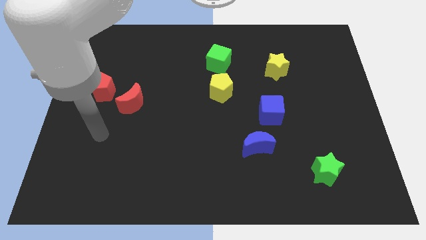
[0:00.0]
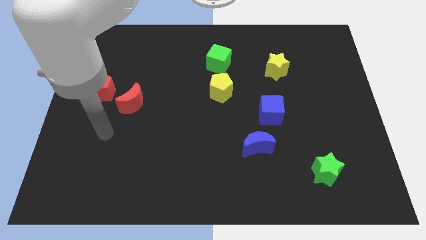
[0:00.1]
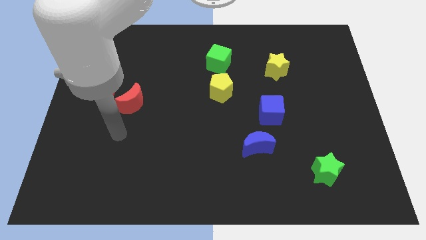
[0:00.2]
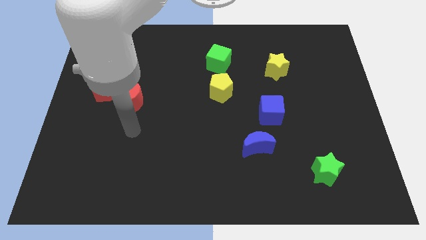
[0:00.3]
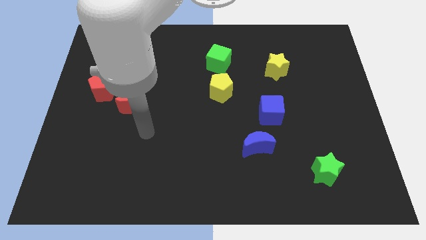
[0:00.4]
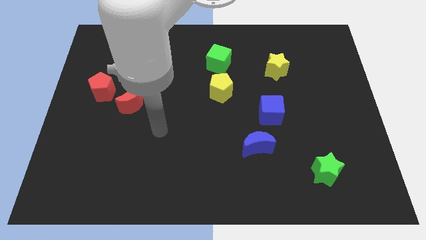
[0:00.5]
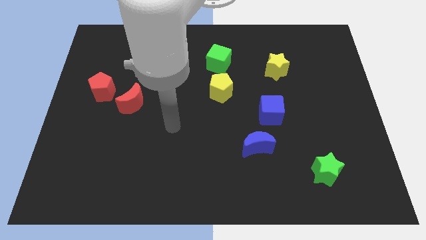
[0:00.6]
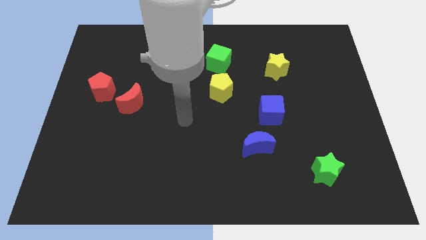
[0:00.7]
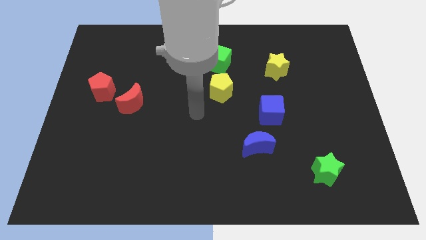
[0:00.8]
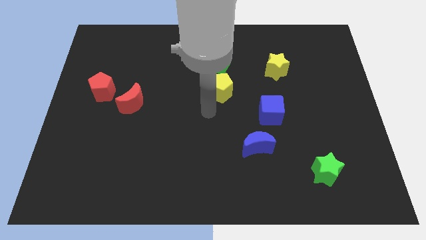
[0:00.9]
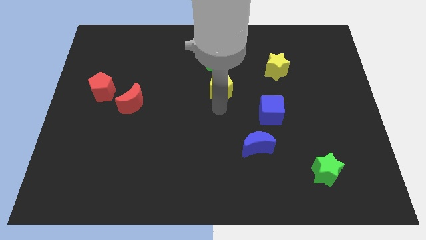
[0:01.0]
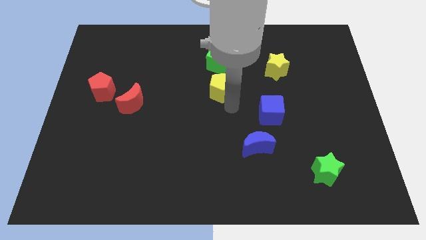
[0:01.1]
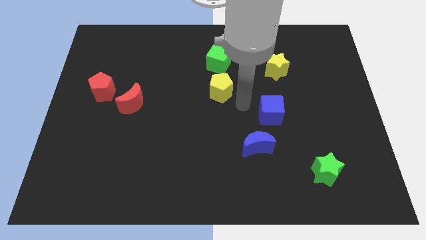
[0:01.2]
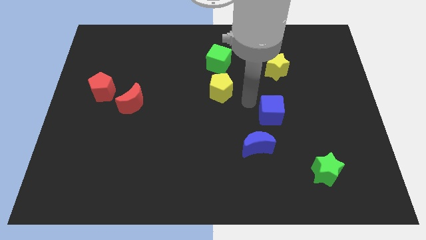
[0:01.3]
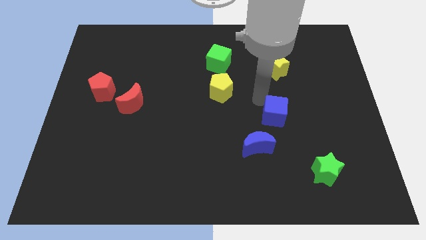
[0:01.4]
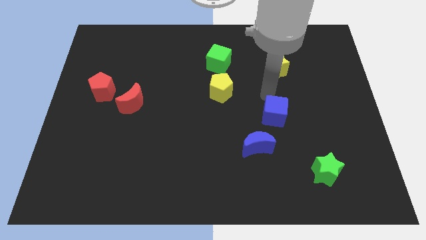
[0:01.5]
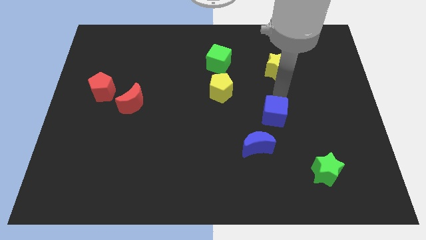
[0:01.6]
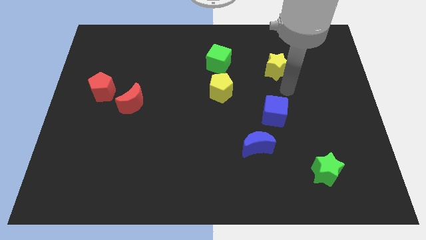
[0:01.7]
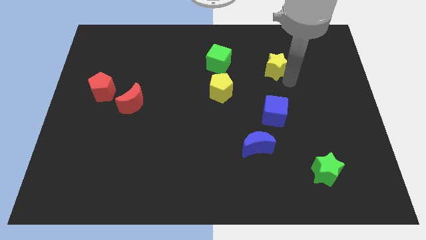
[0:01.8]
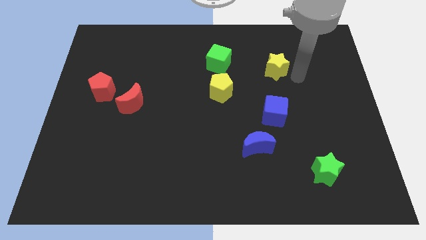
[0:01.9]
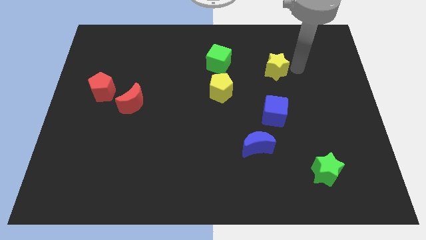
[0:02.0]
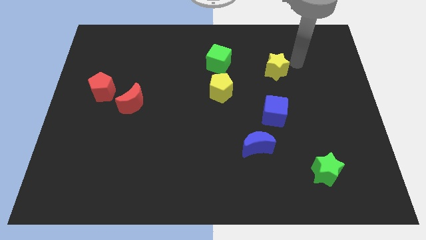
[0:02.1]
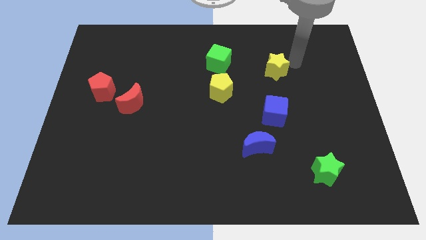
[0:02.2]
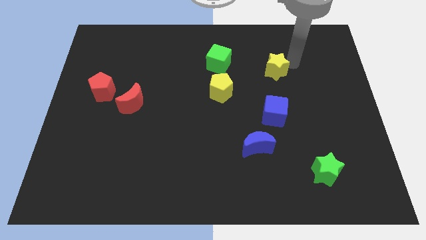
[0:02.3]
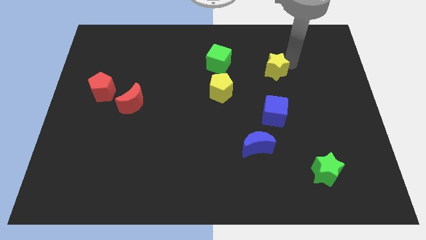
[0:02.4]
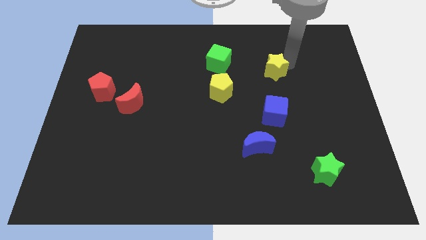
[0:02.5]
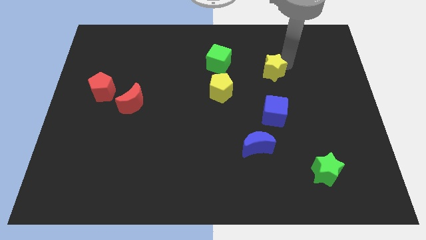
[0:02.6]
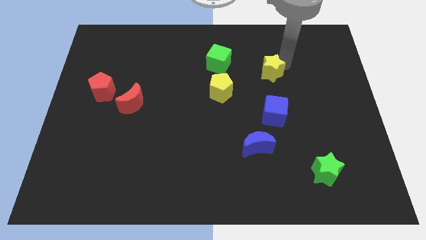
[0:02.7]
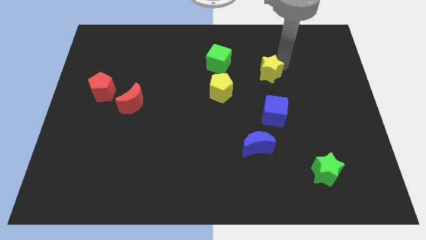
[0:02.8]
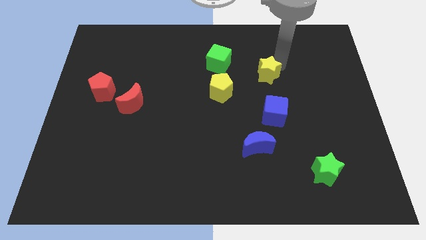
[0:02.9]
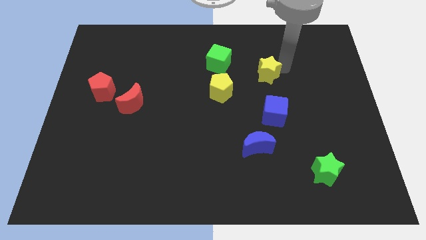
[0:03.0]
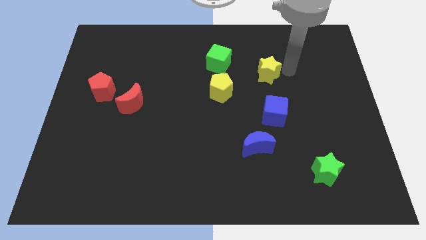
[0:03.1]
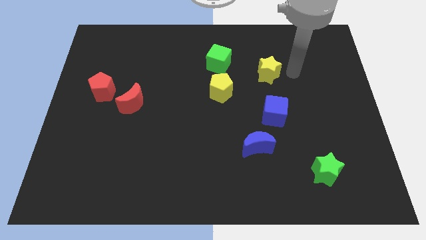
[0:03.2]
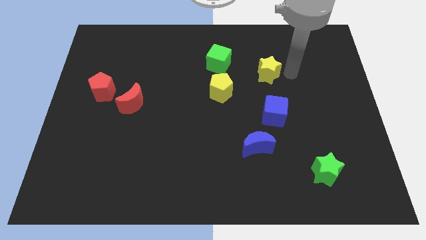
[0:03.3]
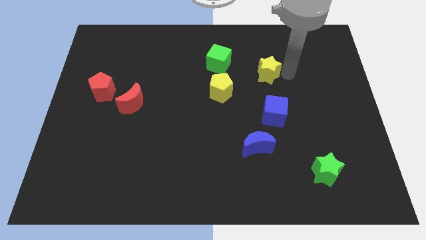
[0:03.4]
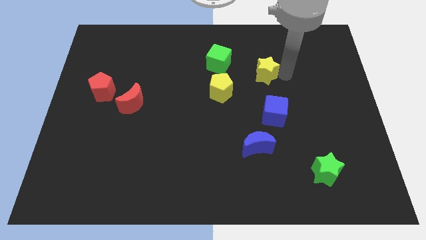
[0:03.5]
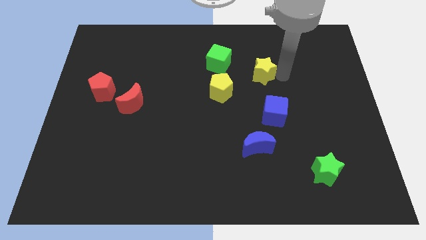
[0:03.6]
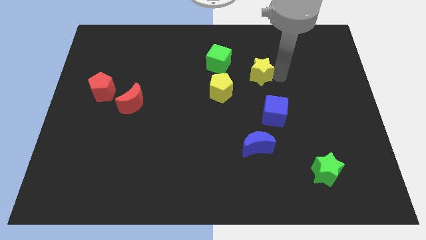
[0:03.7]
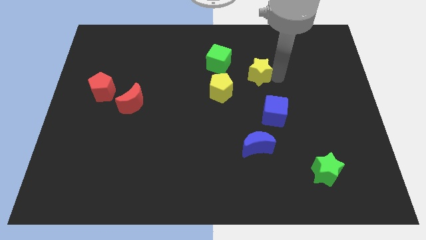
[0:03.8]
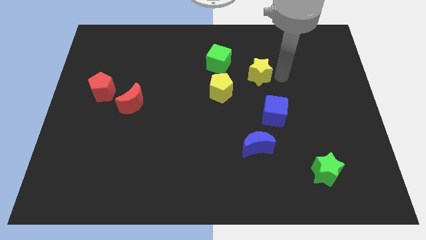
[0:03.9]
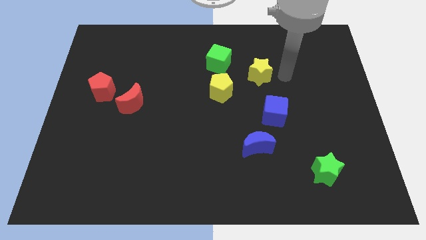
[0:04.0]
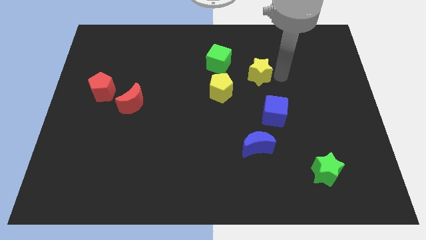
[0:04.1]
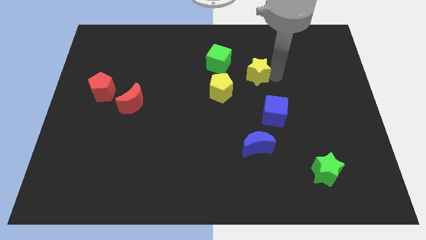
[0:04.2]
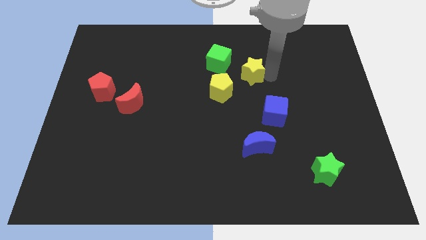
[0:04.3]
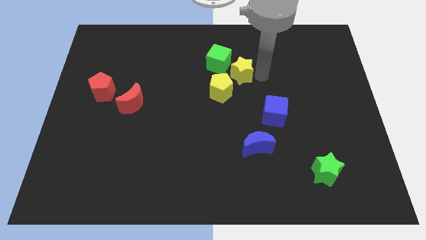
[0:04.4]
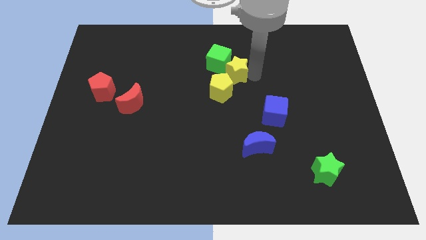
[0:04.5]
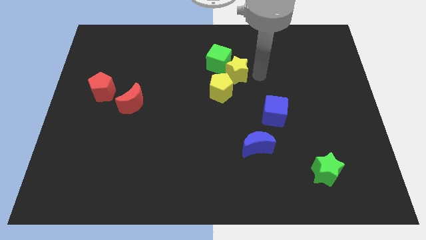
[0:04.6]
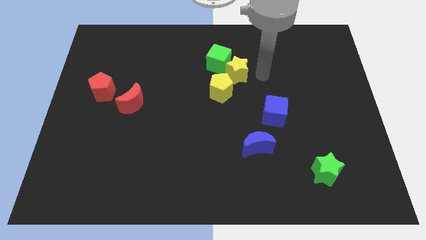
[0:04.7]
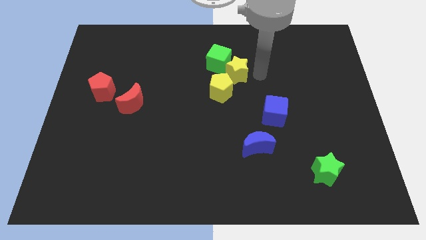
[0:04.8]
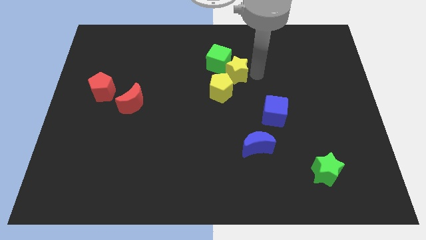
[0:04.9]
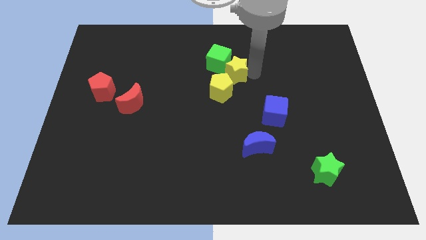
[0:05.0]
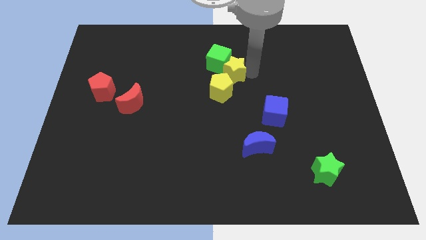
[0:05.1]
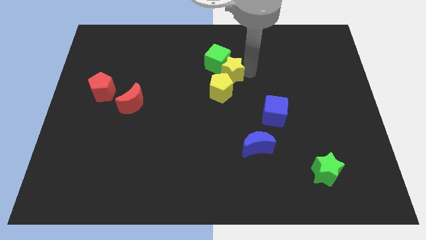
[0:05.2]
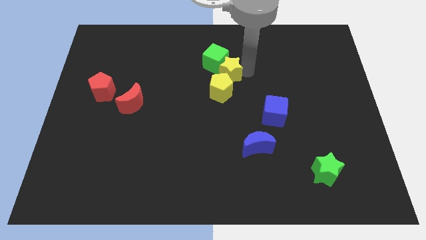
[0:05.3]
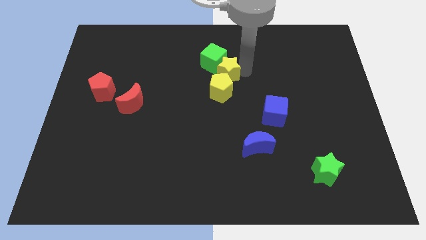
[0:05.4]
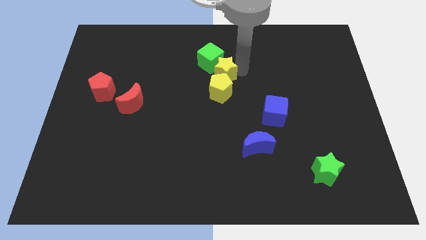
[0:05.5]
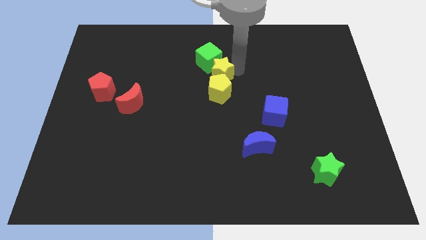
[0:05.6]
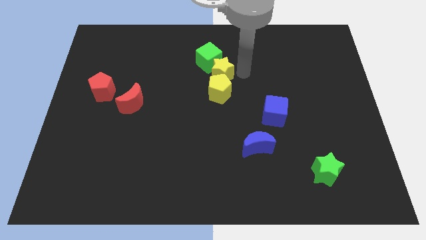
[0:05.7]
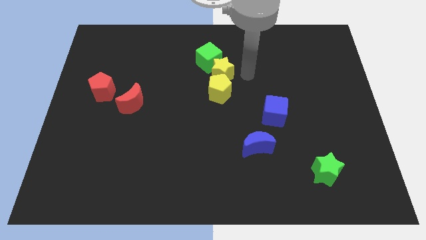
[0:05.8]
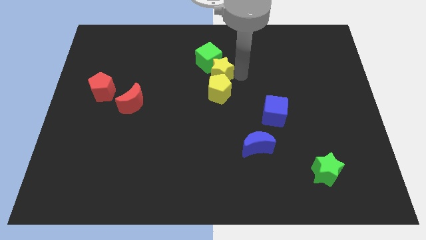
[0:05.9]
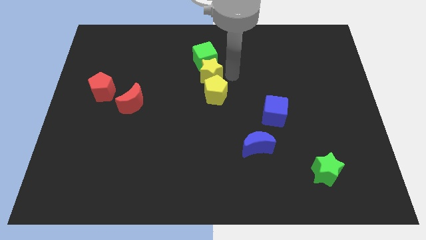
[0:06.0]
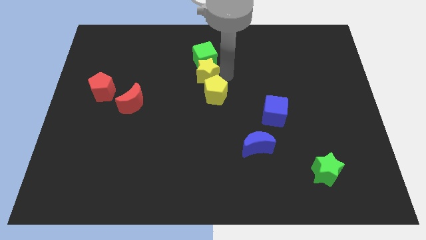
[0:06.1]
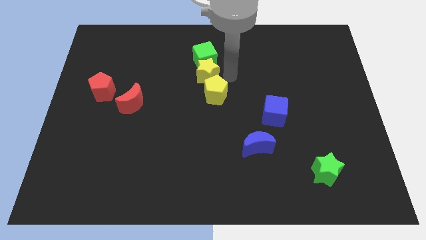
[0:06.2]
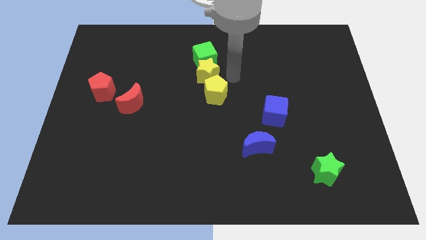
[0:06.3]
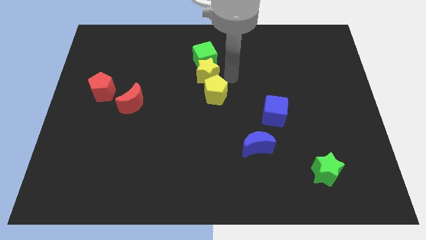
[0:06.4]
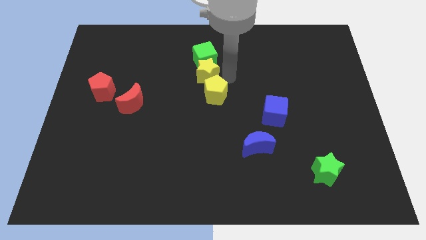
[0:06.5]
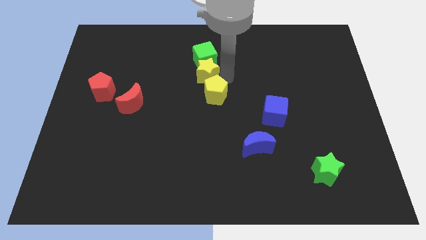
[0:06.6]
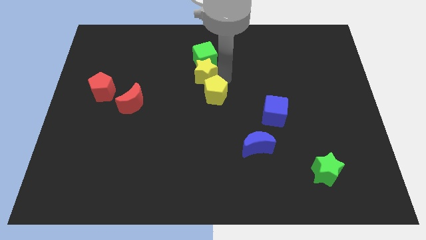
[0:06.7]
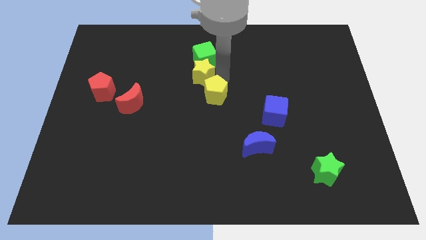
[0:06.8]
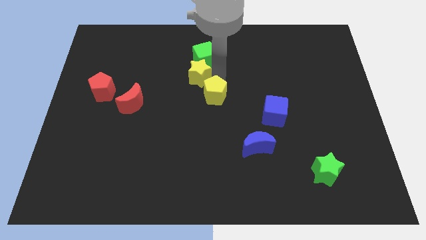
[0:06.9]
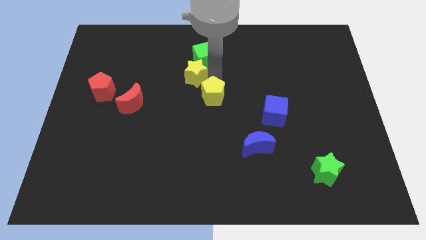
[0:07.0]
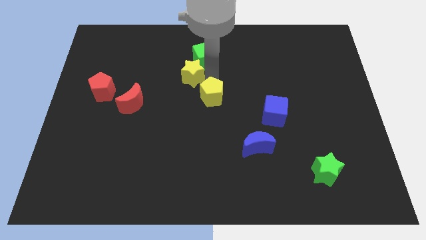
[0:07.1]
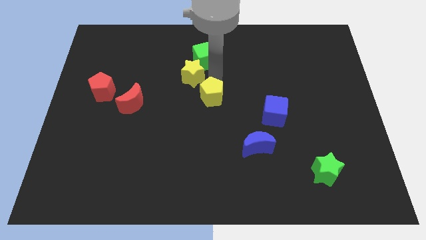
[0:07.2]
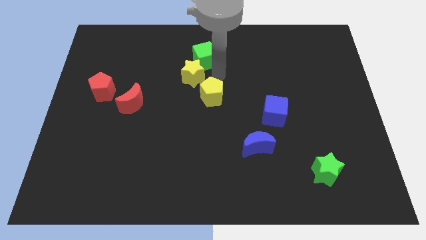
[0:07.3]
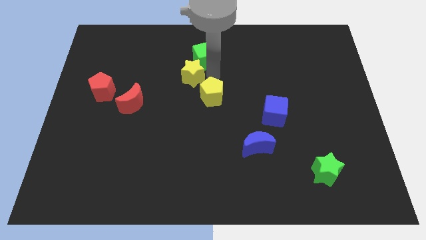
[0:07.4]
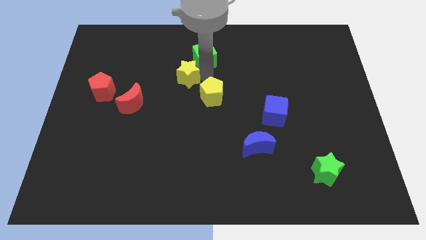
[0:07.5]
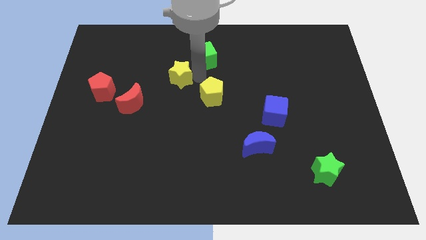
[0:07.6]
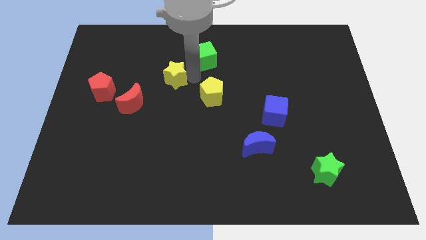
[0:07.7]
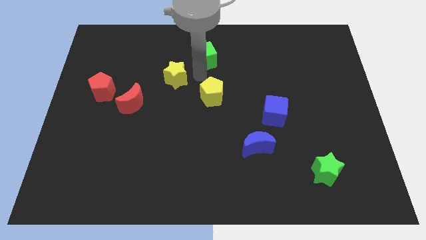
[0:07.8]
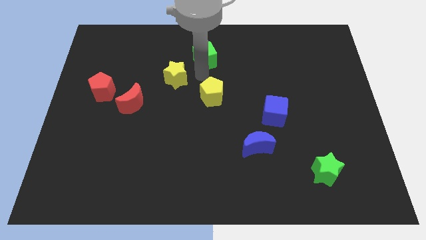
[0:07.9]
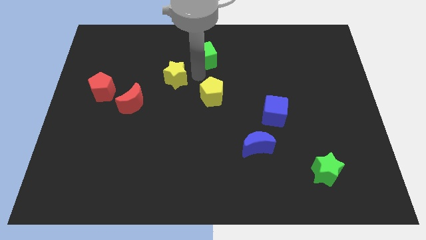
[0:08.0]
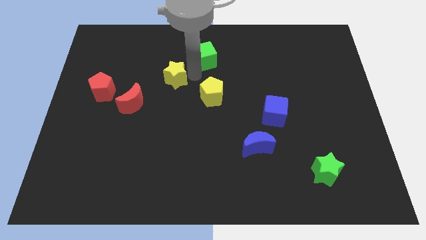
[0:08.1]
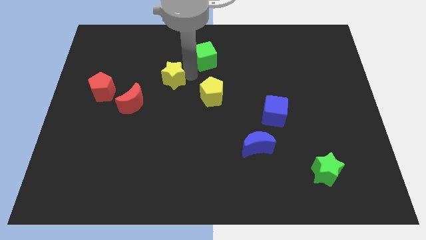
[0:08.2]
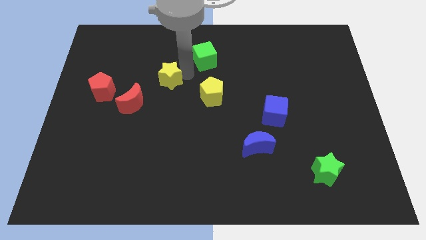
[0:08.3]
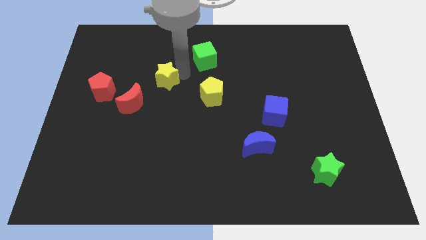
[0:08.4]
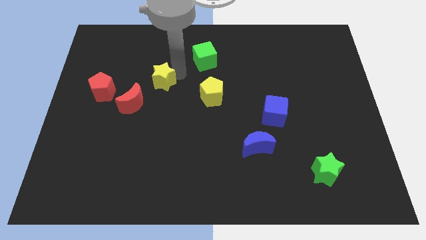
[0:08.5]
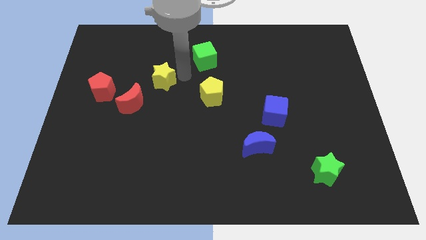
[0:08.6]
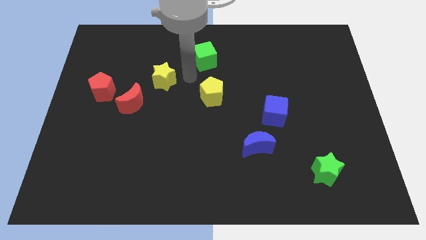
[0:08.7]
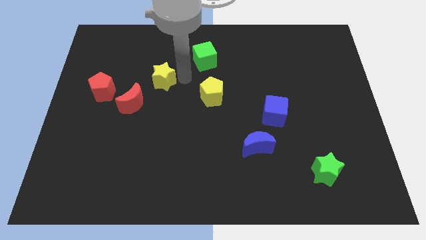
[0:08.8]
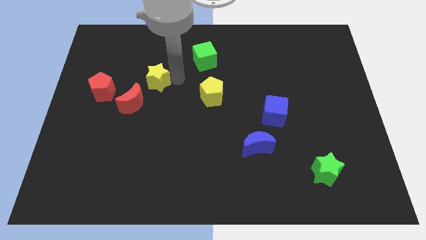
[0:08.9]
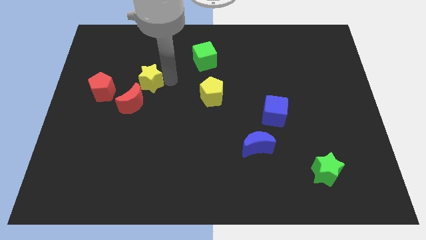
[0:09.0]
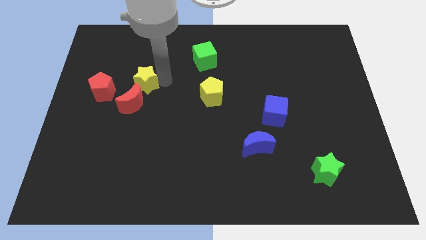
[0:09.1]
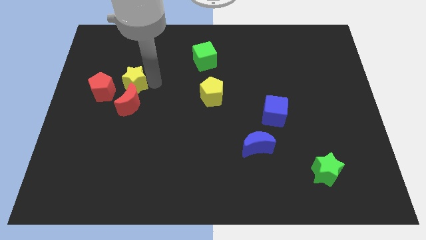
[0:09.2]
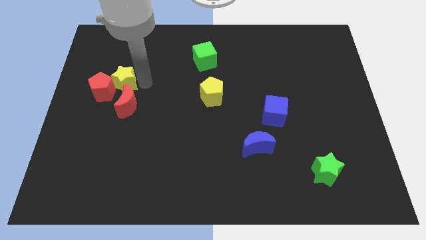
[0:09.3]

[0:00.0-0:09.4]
move the yellow star next to the red pentagon
